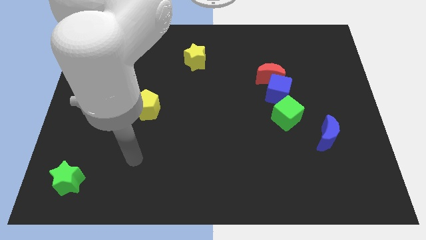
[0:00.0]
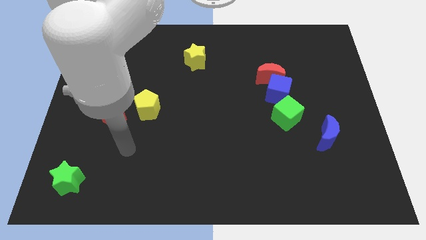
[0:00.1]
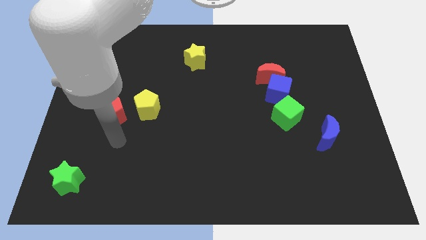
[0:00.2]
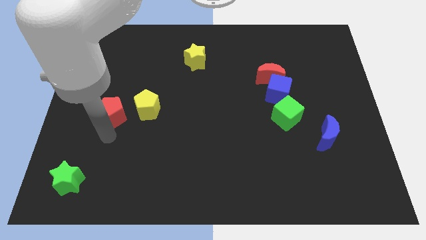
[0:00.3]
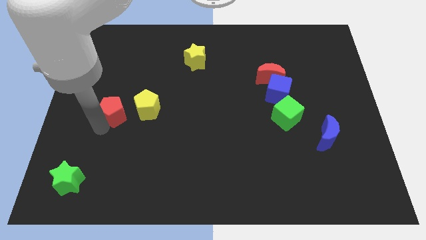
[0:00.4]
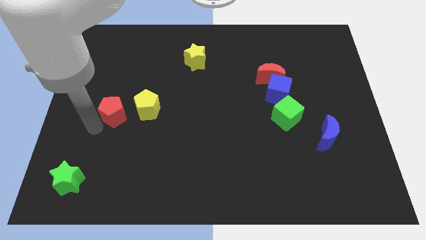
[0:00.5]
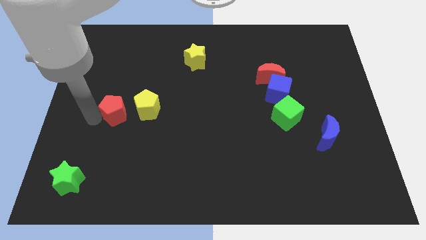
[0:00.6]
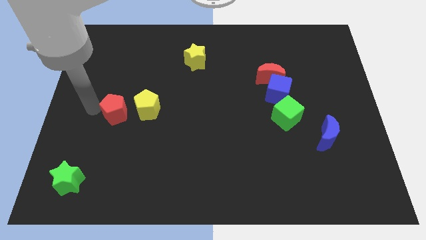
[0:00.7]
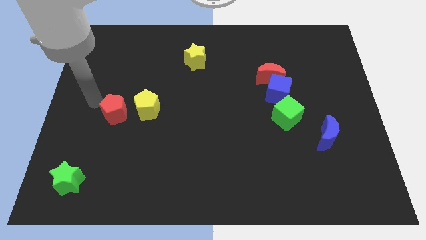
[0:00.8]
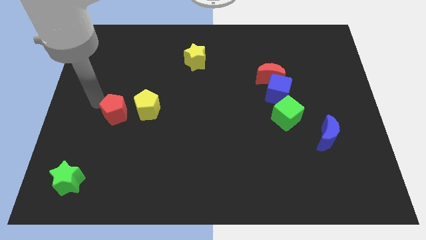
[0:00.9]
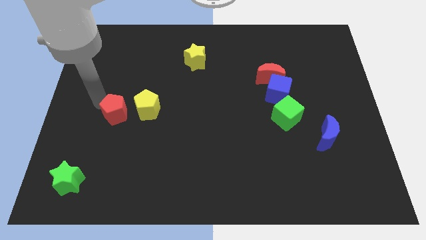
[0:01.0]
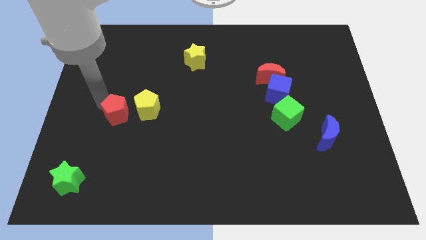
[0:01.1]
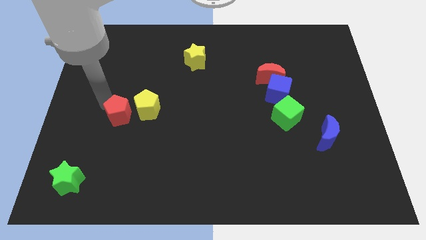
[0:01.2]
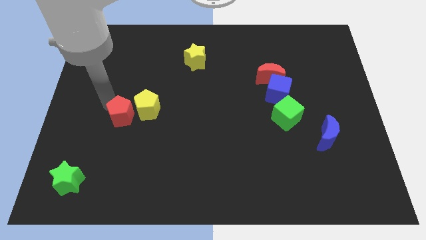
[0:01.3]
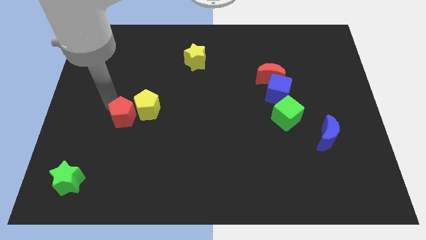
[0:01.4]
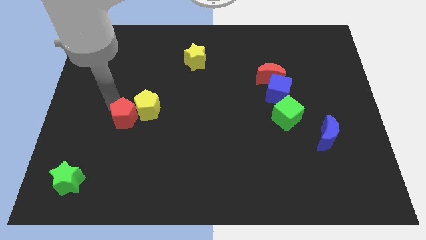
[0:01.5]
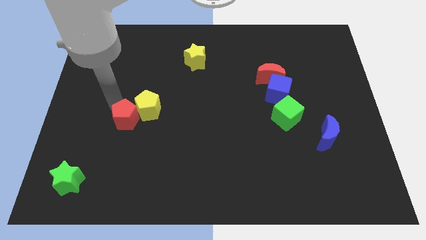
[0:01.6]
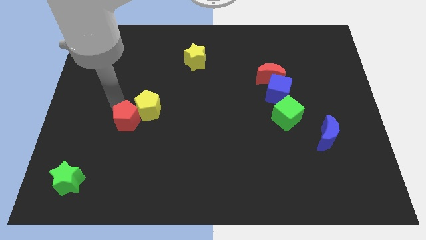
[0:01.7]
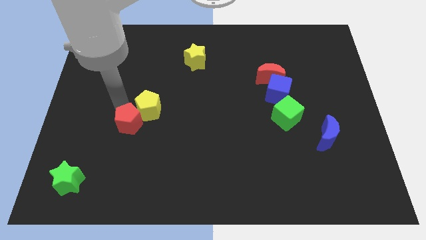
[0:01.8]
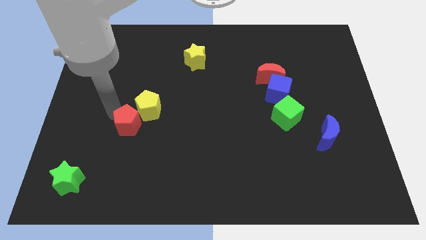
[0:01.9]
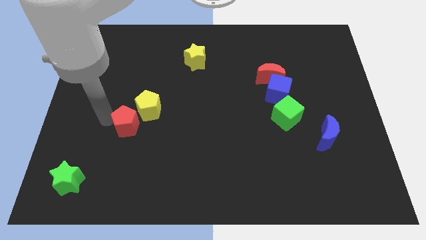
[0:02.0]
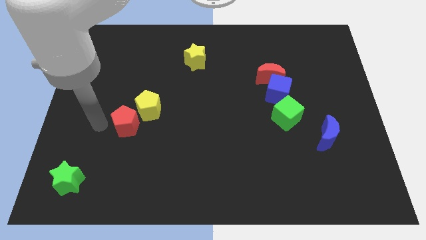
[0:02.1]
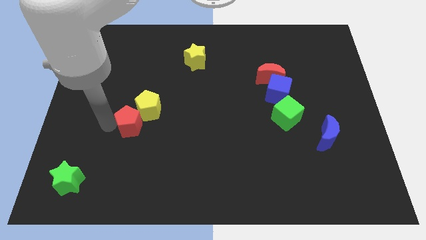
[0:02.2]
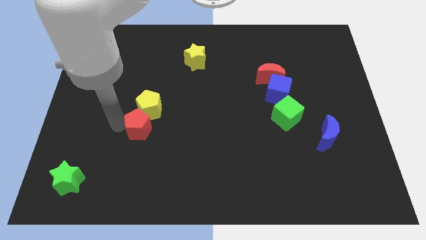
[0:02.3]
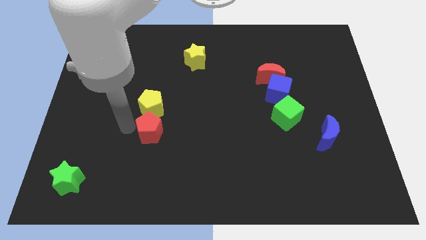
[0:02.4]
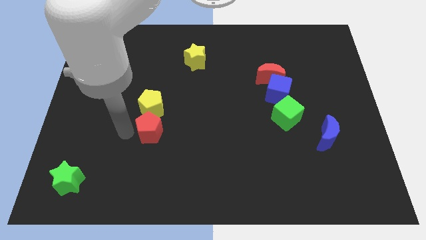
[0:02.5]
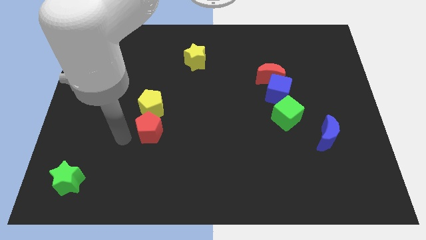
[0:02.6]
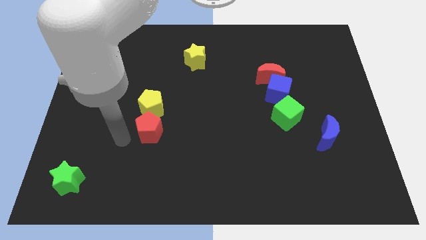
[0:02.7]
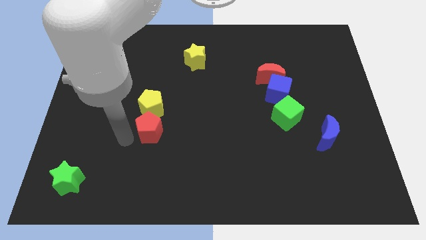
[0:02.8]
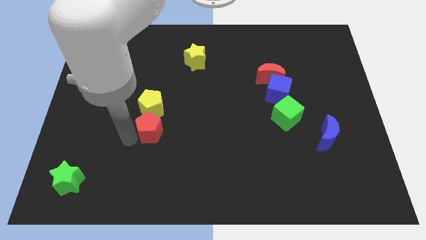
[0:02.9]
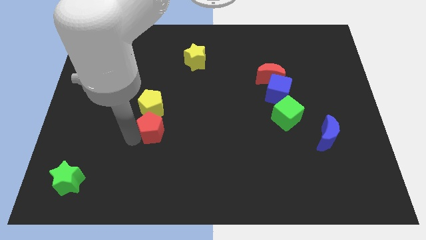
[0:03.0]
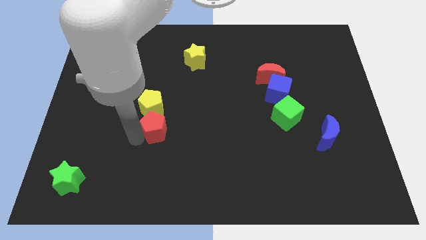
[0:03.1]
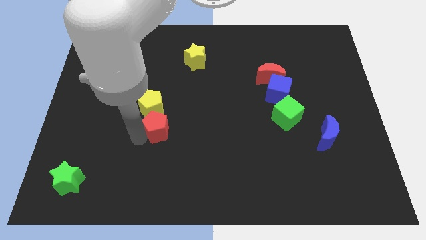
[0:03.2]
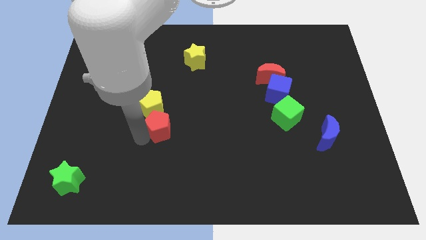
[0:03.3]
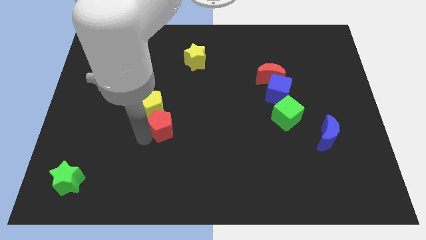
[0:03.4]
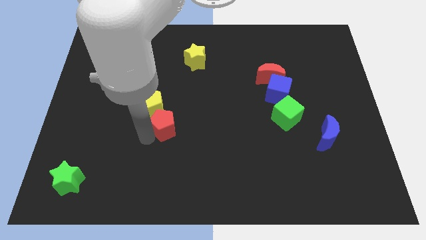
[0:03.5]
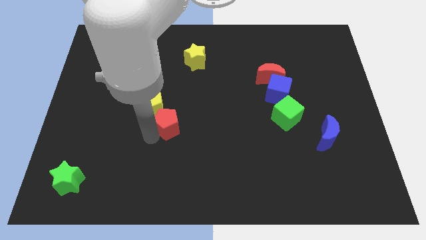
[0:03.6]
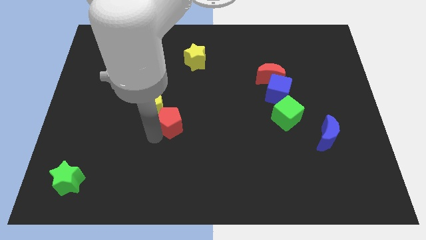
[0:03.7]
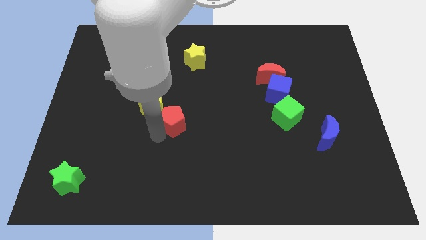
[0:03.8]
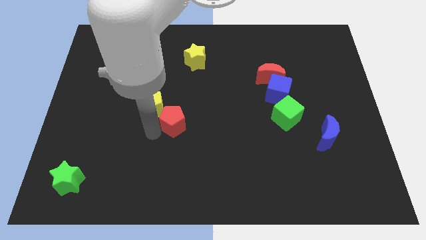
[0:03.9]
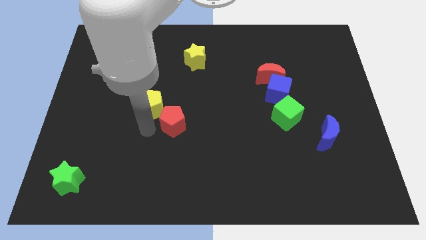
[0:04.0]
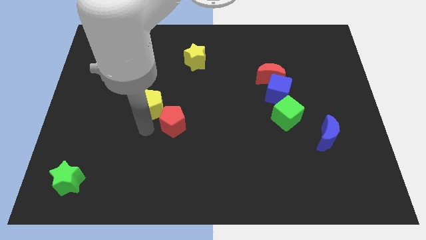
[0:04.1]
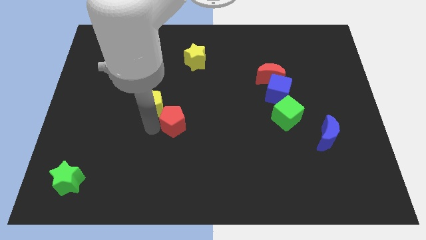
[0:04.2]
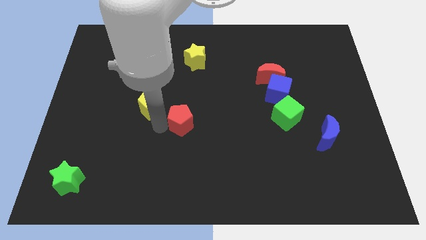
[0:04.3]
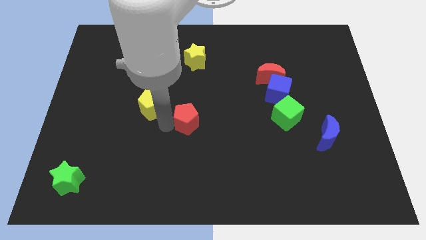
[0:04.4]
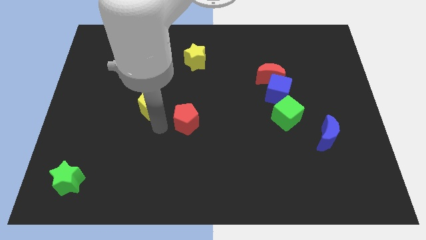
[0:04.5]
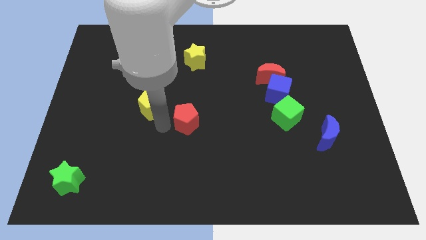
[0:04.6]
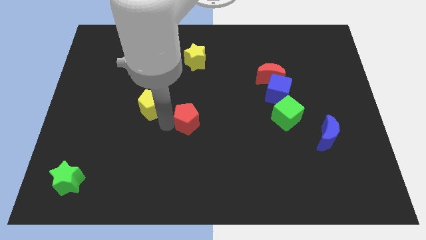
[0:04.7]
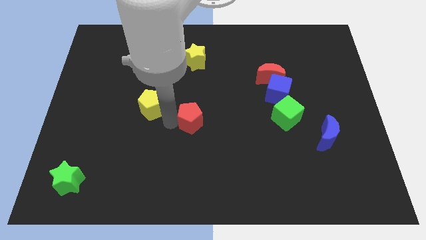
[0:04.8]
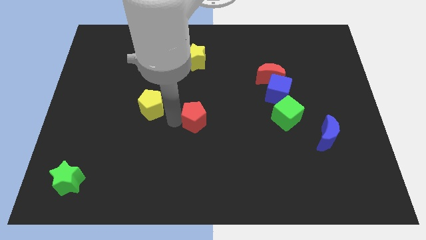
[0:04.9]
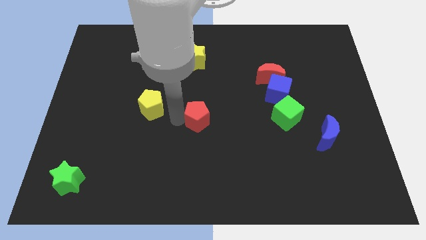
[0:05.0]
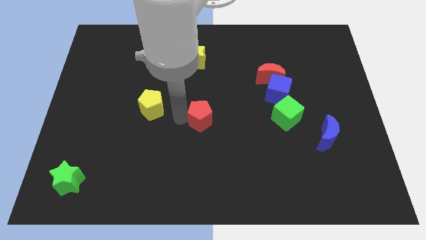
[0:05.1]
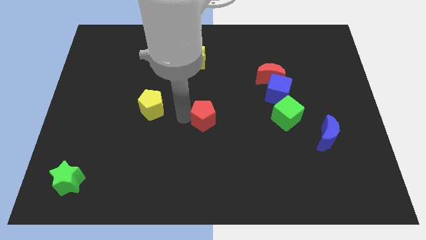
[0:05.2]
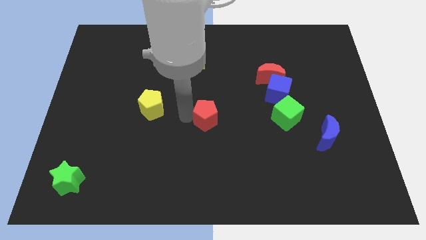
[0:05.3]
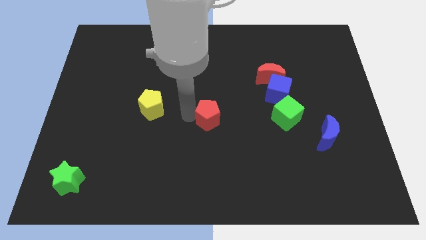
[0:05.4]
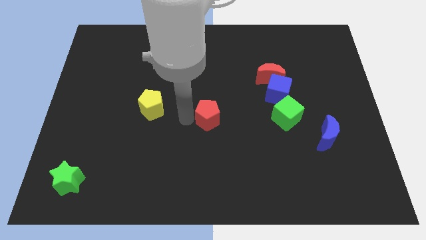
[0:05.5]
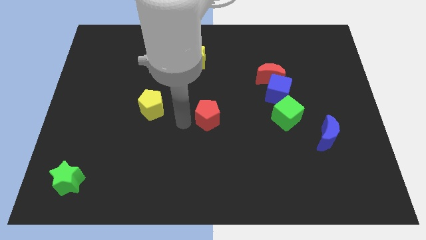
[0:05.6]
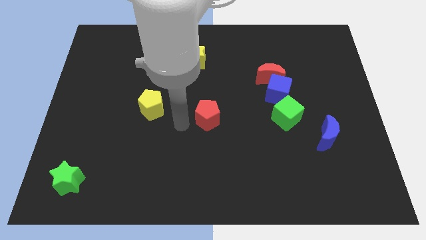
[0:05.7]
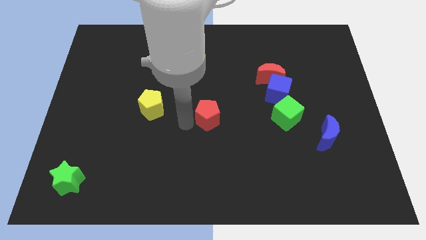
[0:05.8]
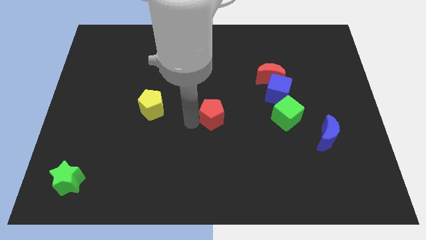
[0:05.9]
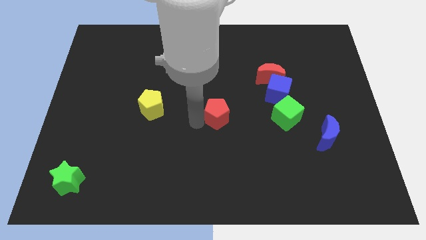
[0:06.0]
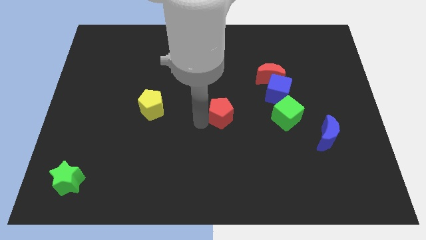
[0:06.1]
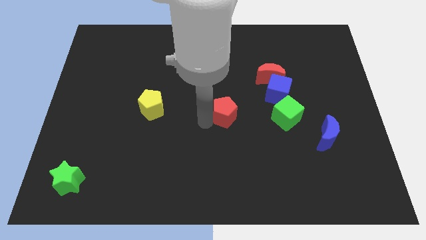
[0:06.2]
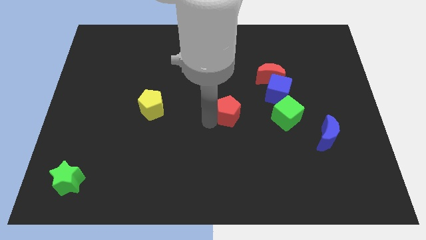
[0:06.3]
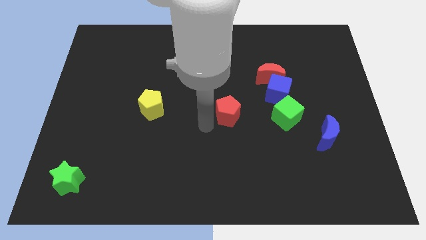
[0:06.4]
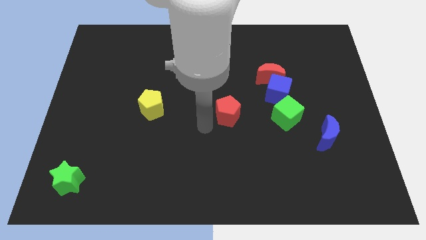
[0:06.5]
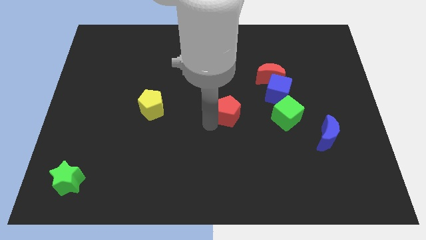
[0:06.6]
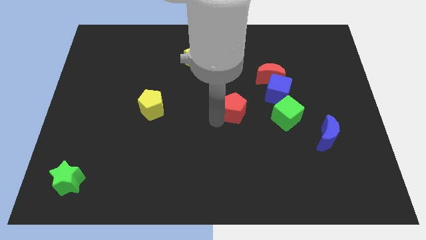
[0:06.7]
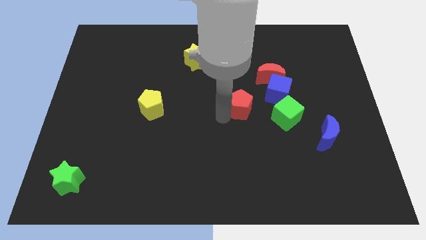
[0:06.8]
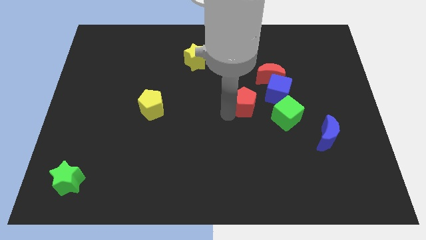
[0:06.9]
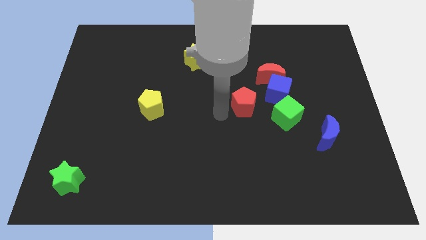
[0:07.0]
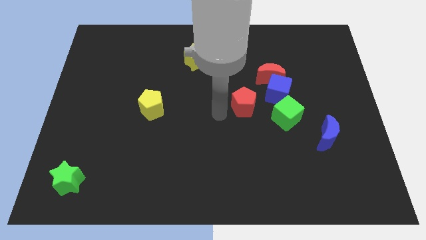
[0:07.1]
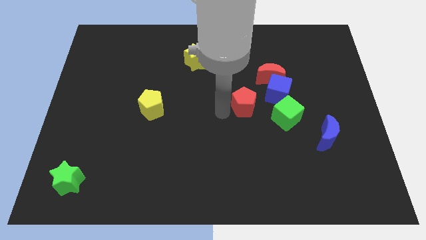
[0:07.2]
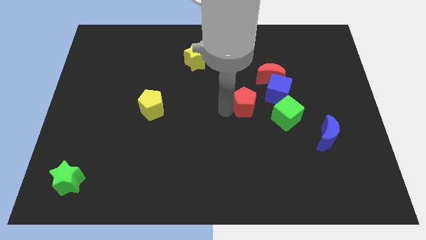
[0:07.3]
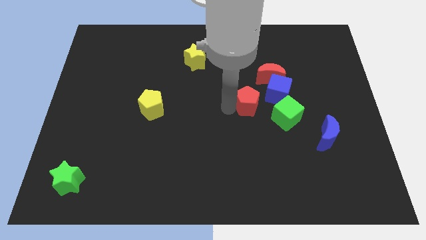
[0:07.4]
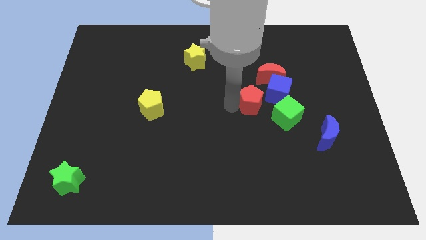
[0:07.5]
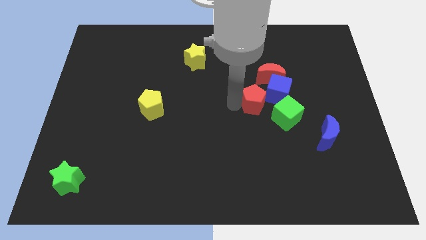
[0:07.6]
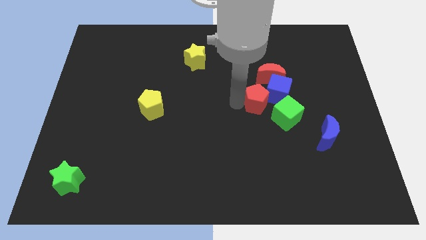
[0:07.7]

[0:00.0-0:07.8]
put the red pentagon close to the blue cube
